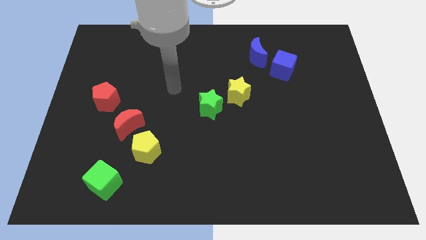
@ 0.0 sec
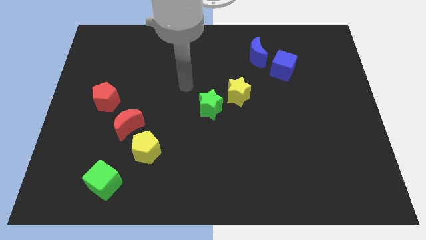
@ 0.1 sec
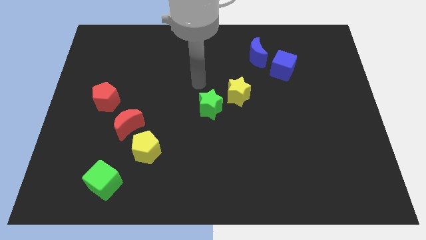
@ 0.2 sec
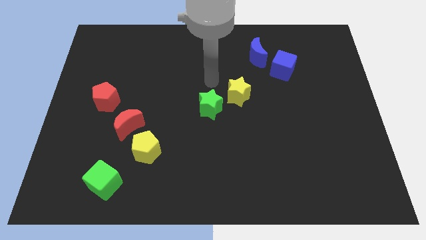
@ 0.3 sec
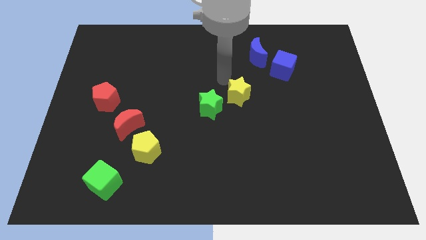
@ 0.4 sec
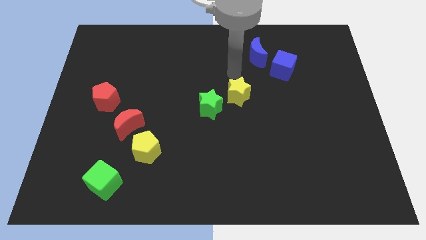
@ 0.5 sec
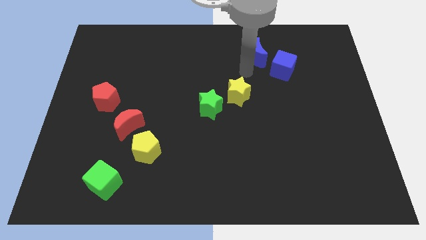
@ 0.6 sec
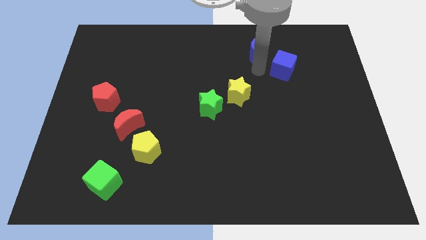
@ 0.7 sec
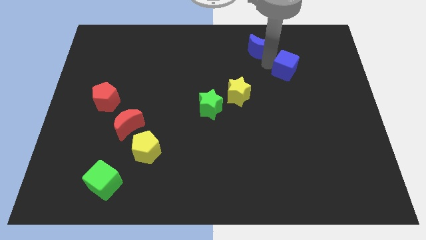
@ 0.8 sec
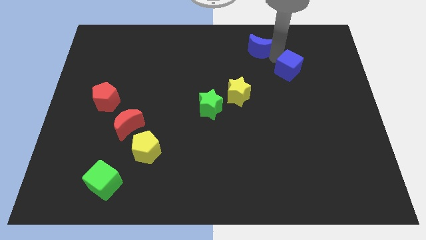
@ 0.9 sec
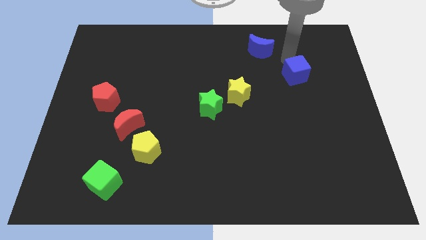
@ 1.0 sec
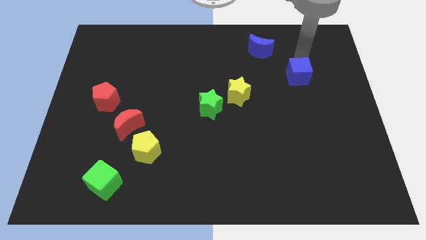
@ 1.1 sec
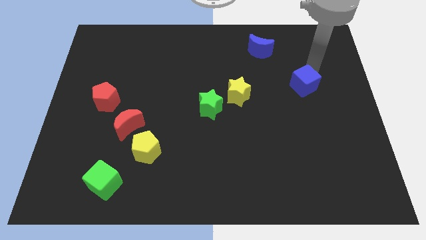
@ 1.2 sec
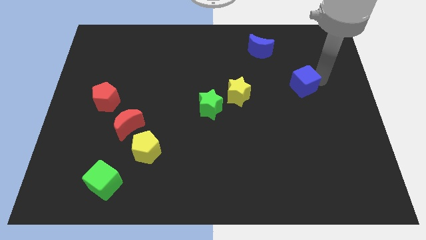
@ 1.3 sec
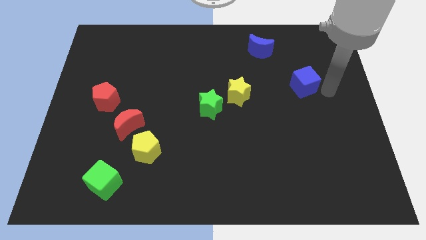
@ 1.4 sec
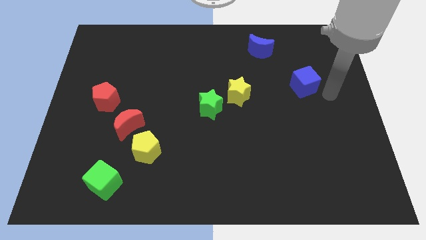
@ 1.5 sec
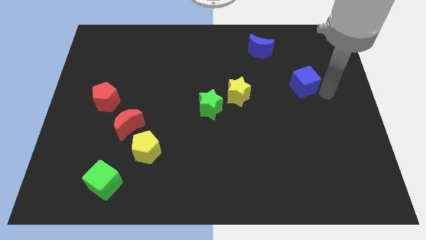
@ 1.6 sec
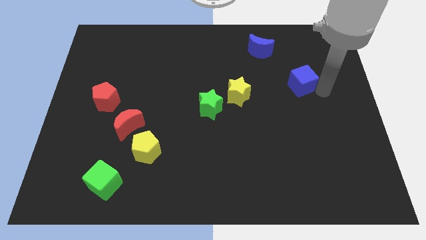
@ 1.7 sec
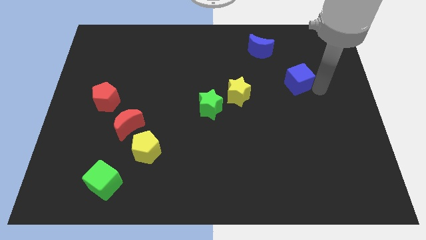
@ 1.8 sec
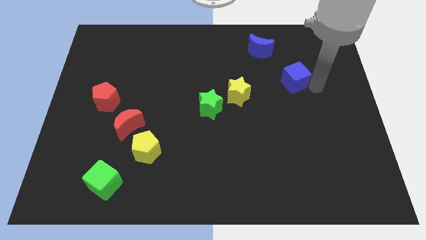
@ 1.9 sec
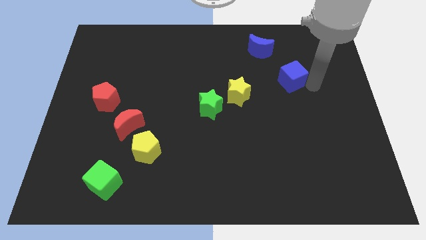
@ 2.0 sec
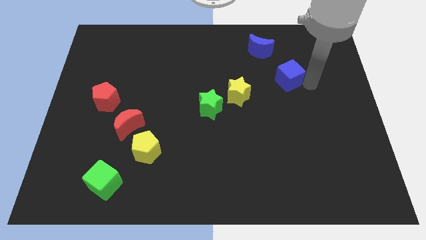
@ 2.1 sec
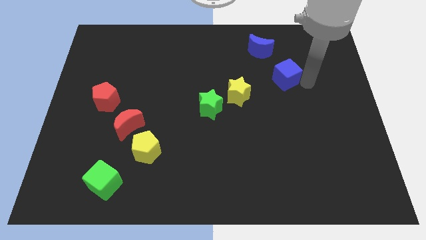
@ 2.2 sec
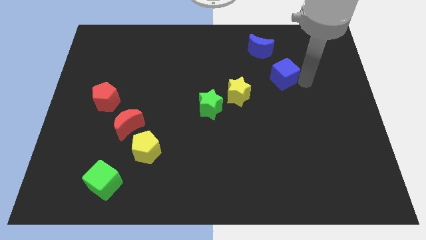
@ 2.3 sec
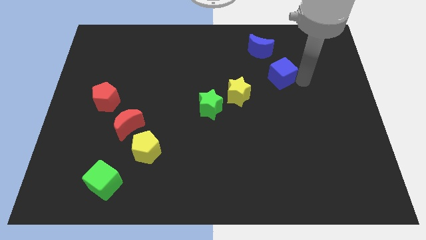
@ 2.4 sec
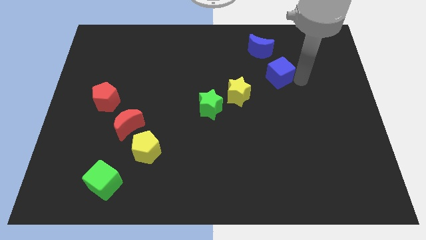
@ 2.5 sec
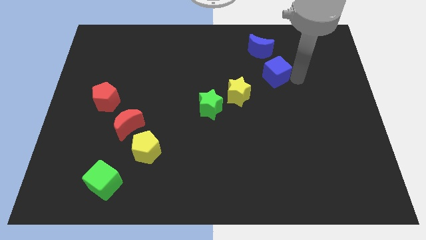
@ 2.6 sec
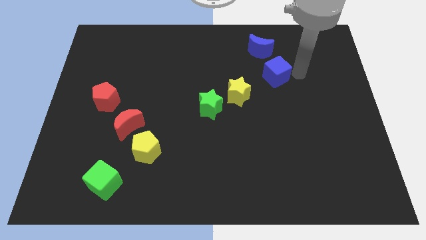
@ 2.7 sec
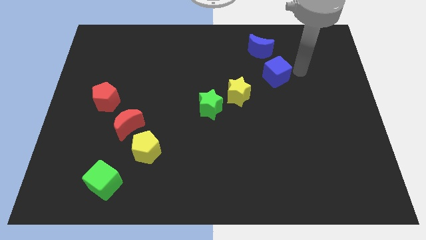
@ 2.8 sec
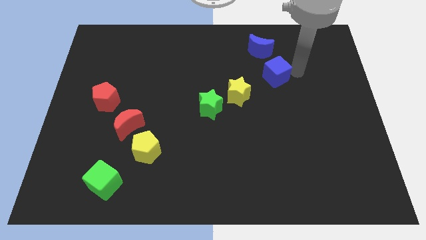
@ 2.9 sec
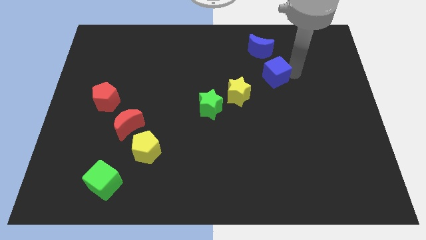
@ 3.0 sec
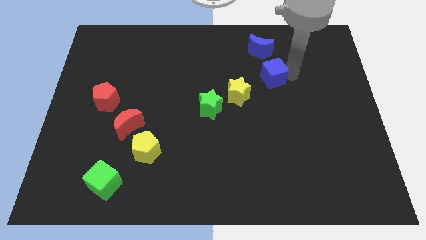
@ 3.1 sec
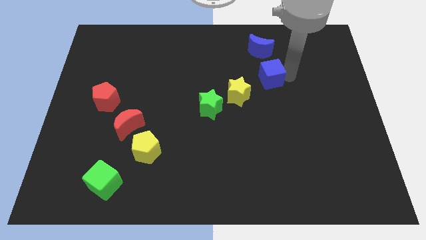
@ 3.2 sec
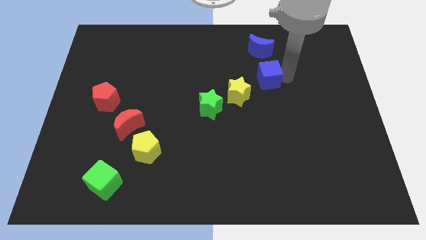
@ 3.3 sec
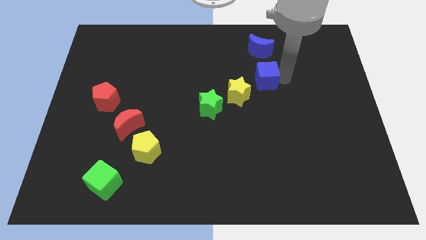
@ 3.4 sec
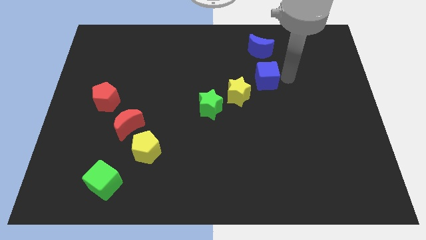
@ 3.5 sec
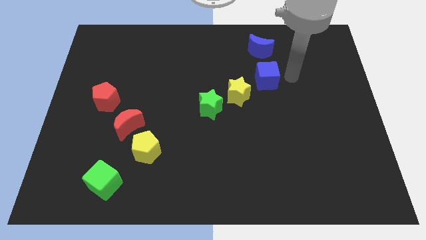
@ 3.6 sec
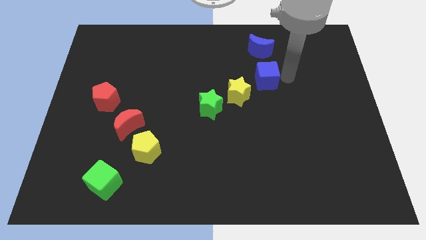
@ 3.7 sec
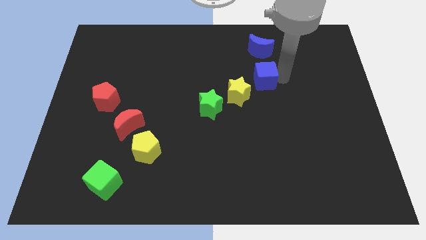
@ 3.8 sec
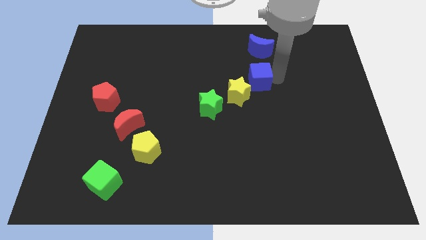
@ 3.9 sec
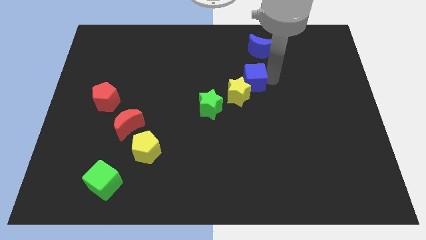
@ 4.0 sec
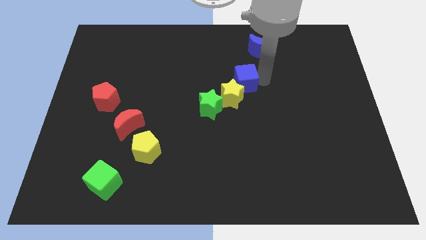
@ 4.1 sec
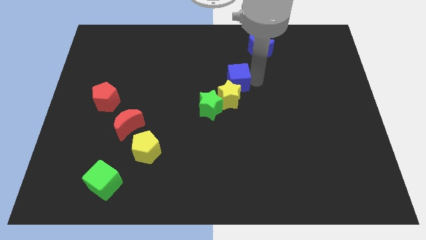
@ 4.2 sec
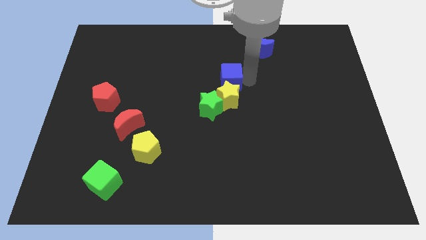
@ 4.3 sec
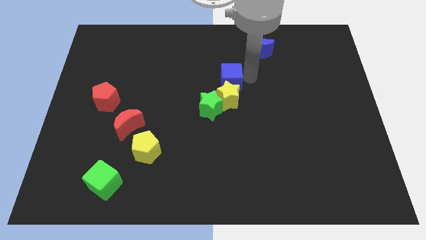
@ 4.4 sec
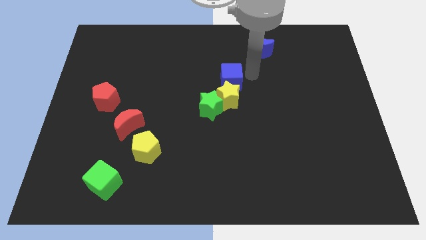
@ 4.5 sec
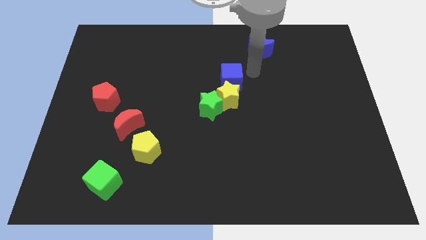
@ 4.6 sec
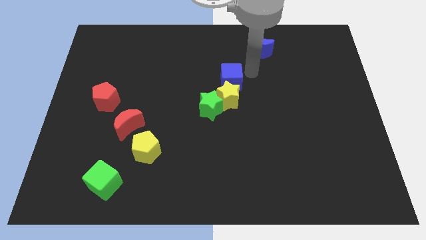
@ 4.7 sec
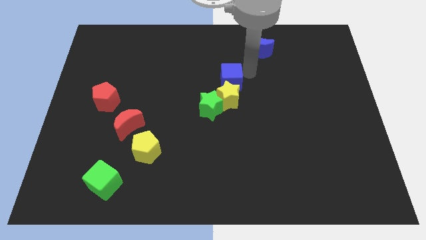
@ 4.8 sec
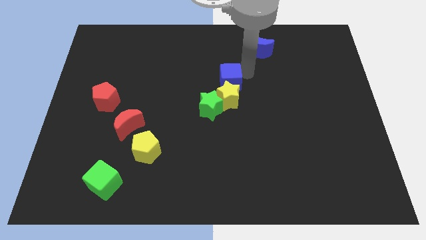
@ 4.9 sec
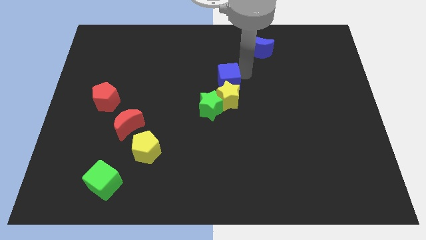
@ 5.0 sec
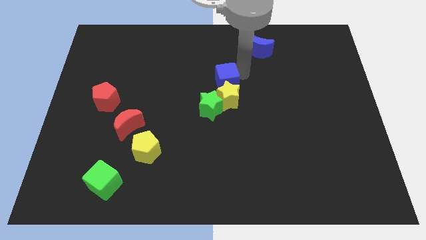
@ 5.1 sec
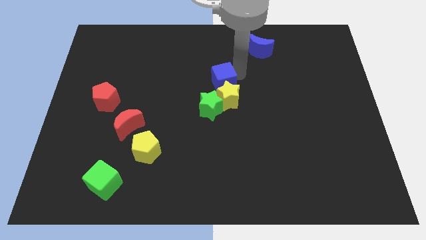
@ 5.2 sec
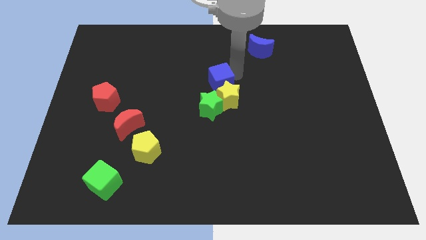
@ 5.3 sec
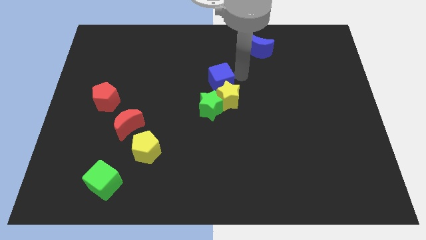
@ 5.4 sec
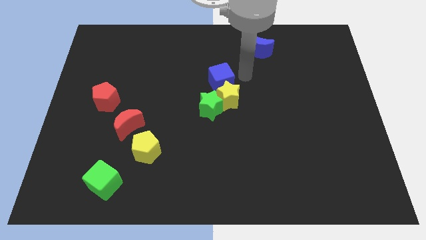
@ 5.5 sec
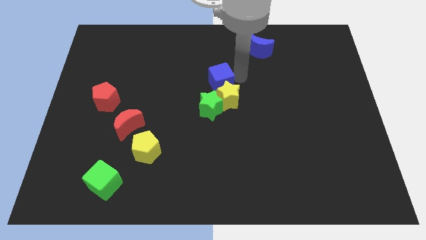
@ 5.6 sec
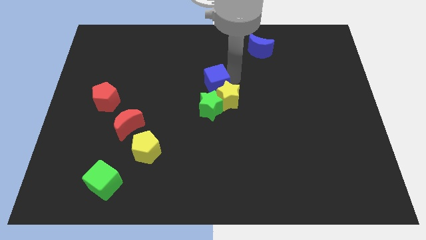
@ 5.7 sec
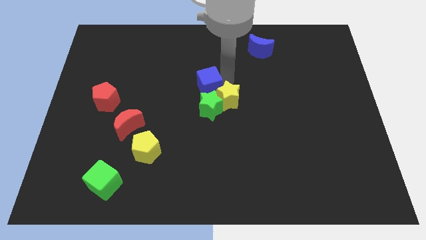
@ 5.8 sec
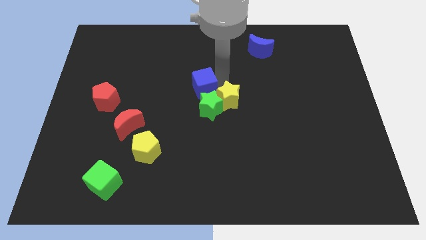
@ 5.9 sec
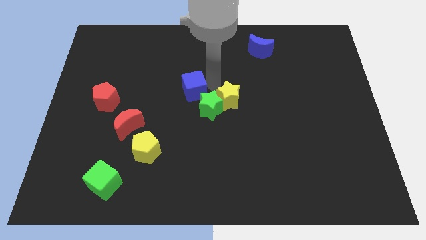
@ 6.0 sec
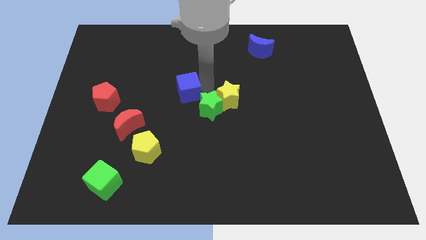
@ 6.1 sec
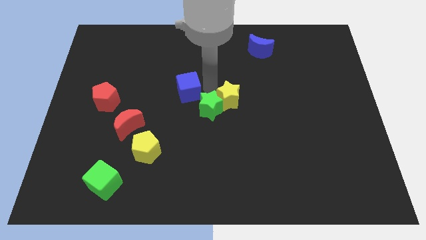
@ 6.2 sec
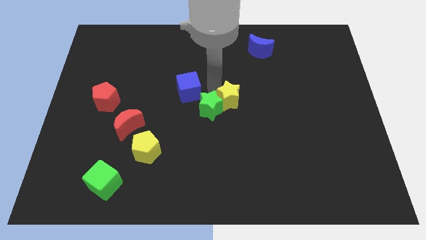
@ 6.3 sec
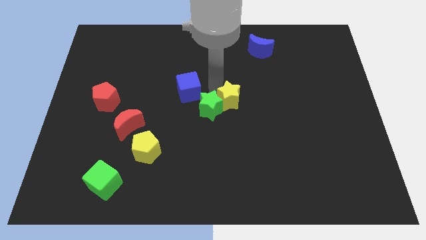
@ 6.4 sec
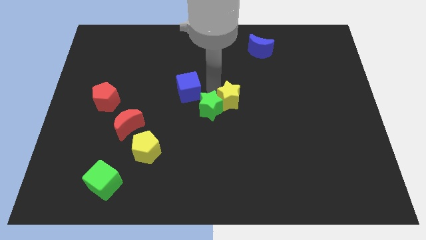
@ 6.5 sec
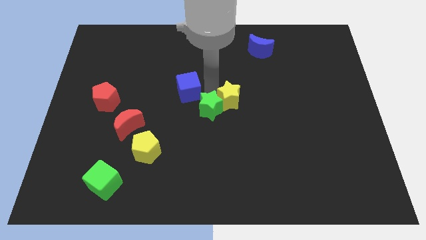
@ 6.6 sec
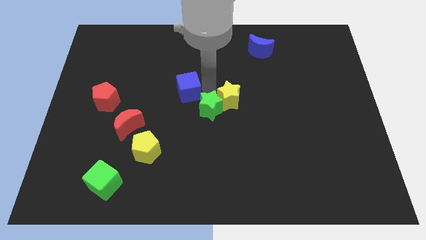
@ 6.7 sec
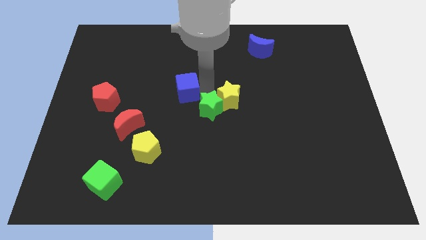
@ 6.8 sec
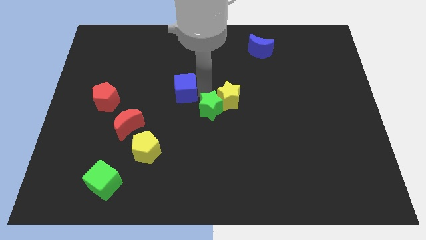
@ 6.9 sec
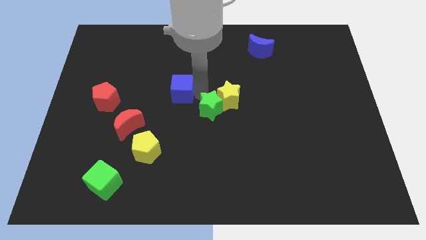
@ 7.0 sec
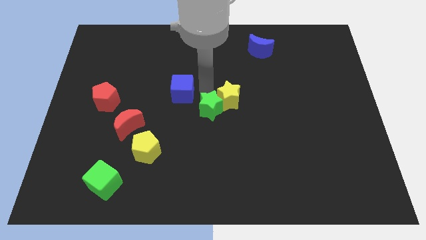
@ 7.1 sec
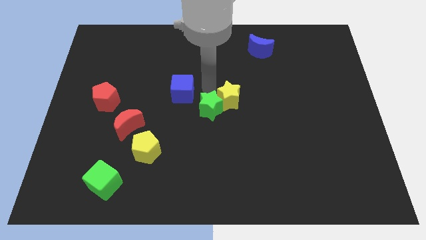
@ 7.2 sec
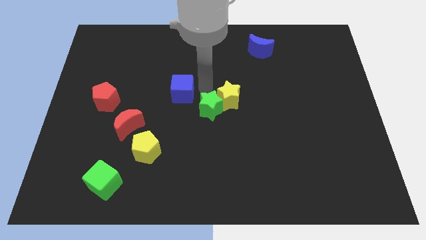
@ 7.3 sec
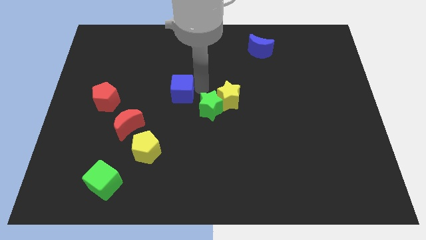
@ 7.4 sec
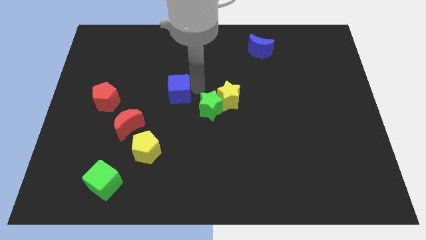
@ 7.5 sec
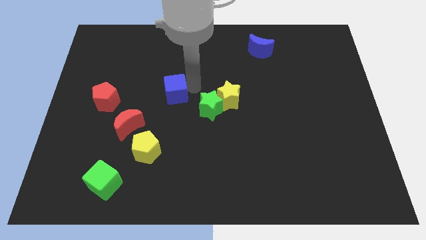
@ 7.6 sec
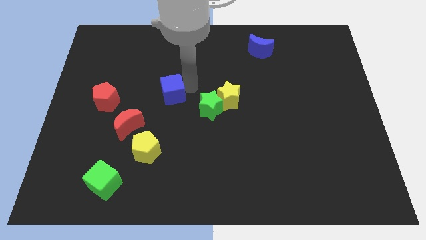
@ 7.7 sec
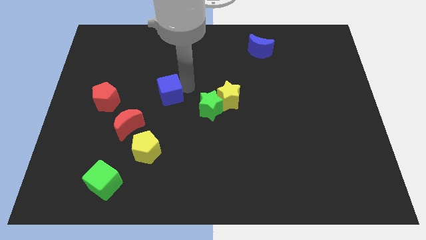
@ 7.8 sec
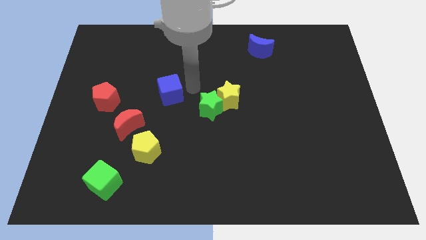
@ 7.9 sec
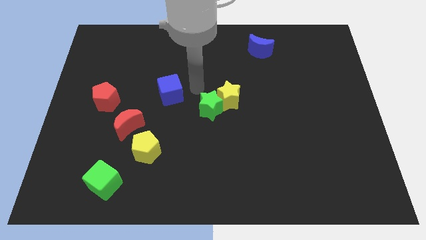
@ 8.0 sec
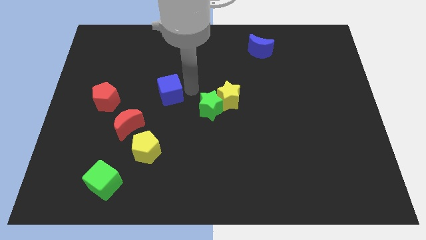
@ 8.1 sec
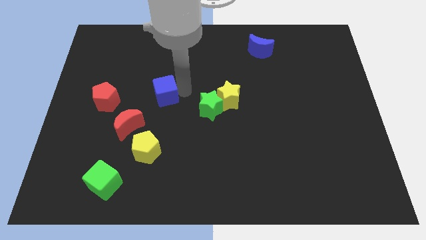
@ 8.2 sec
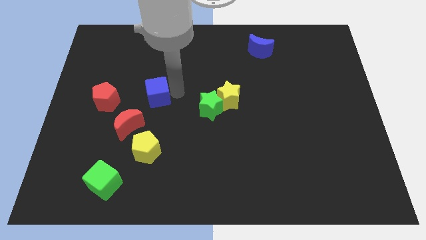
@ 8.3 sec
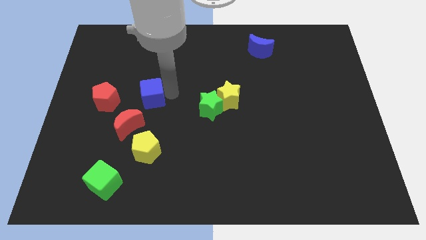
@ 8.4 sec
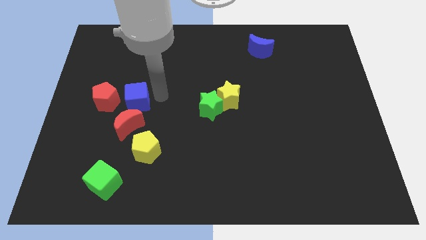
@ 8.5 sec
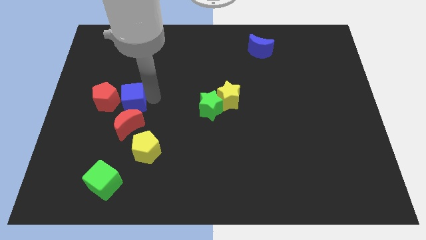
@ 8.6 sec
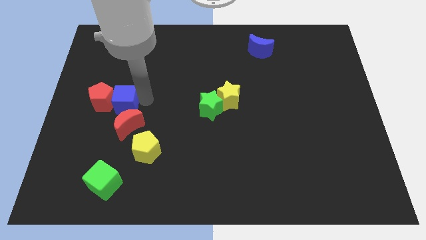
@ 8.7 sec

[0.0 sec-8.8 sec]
push the blue cube close to the red pentagon
